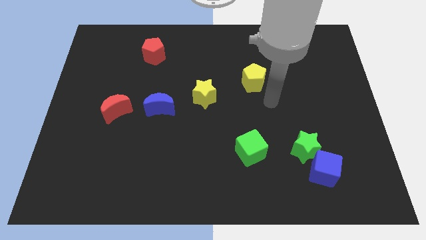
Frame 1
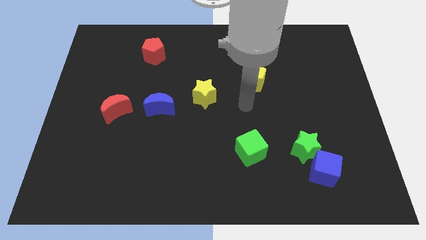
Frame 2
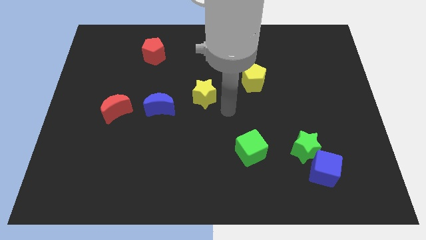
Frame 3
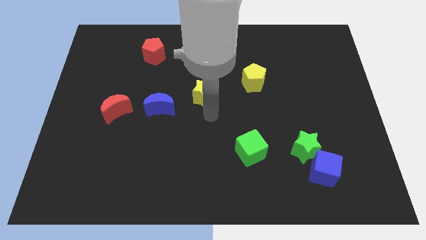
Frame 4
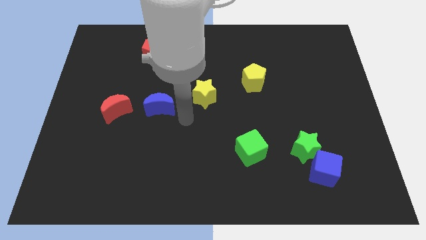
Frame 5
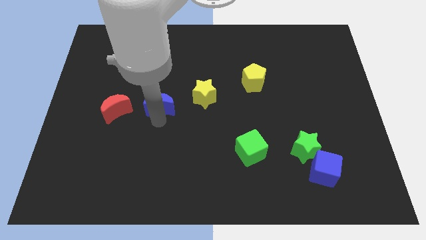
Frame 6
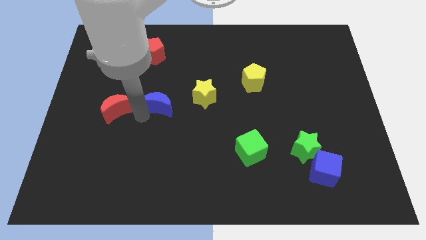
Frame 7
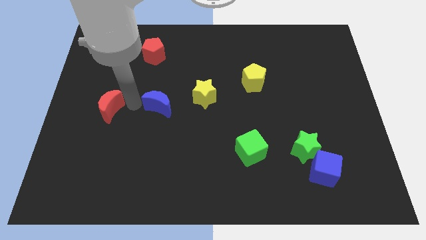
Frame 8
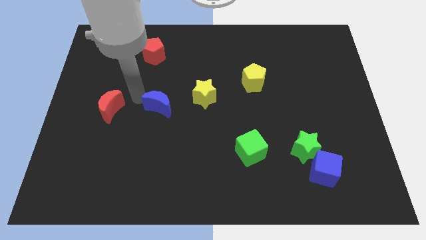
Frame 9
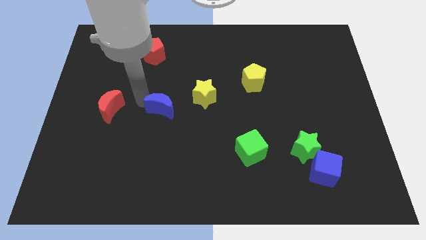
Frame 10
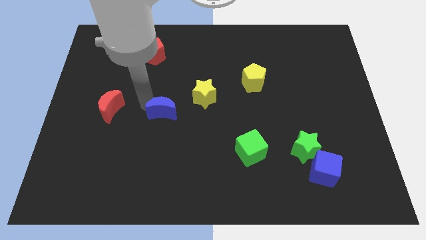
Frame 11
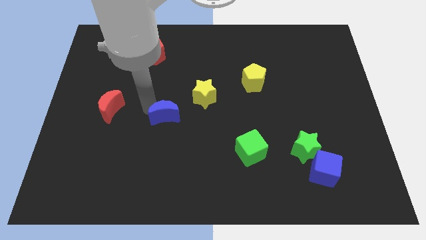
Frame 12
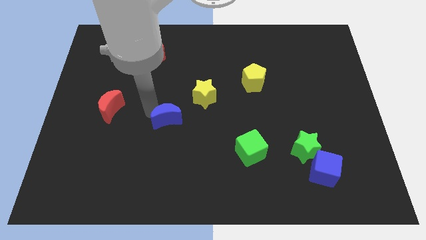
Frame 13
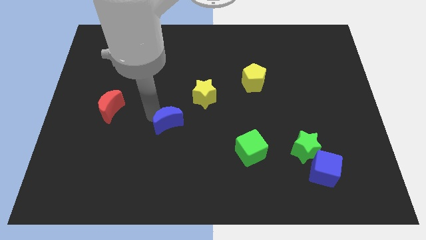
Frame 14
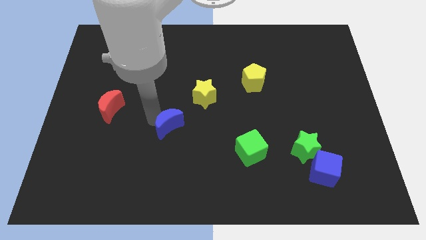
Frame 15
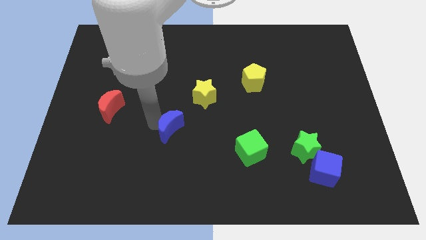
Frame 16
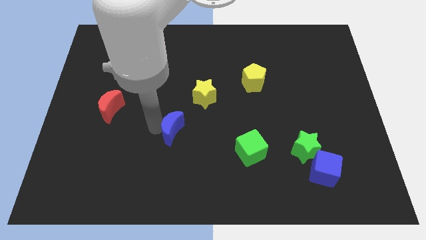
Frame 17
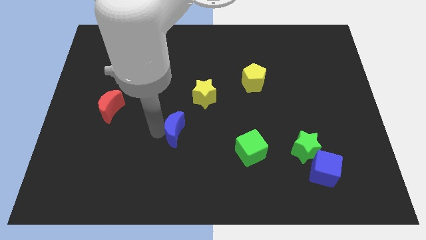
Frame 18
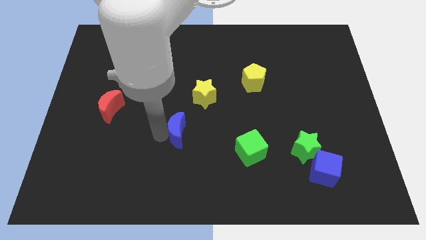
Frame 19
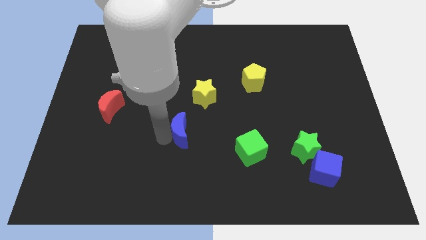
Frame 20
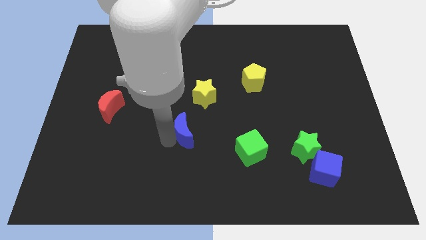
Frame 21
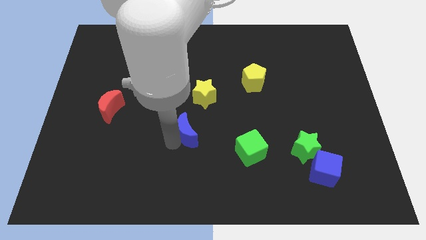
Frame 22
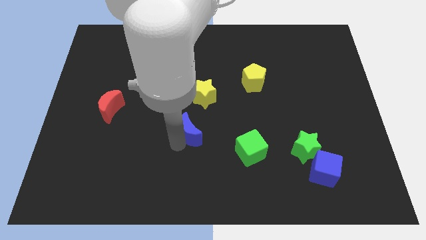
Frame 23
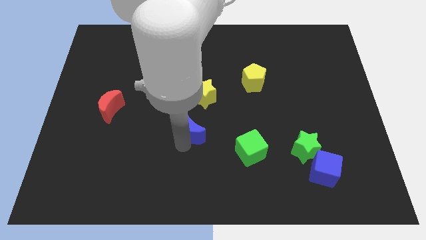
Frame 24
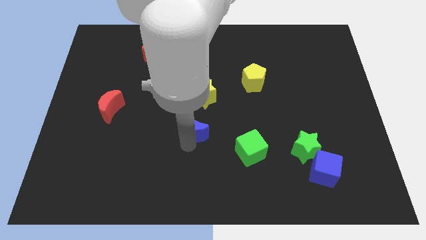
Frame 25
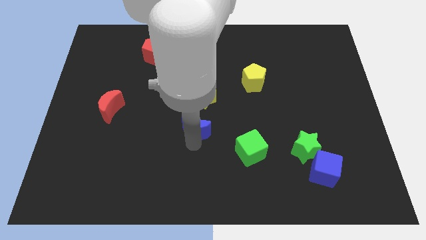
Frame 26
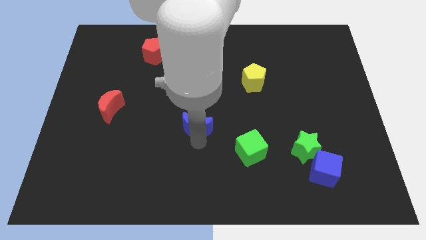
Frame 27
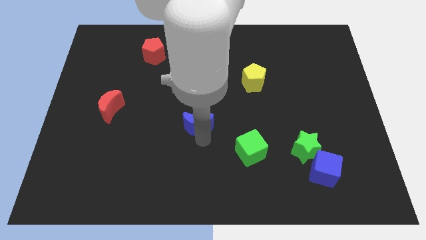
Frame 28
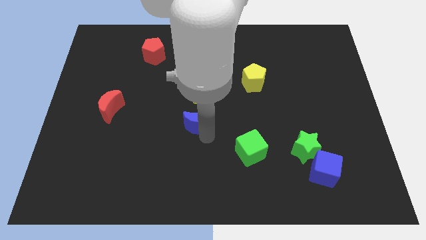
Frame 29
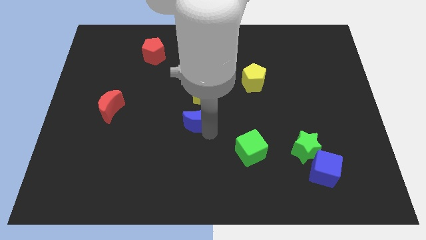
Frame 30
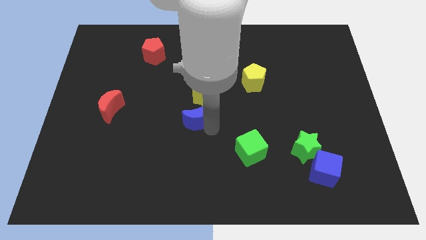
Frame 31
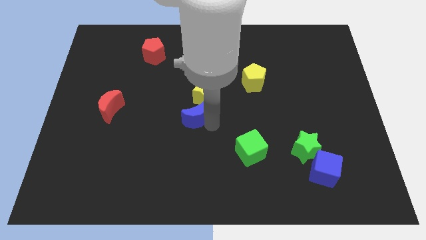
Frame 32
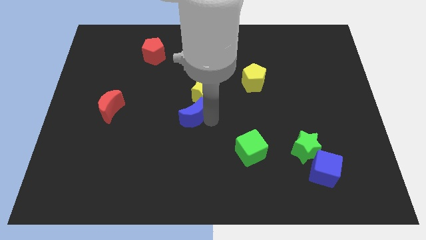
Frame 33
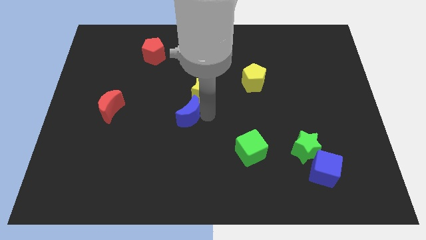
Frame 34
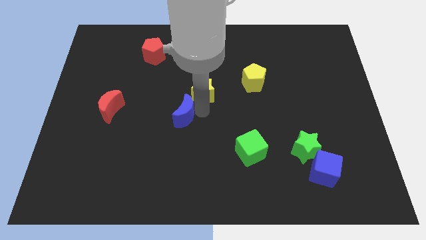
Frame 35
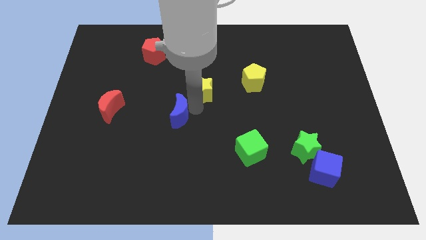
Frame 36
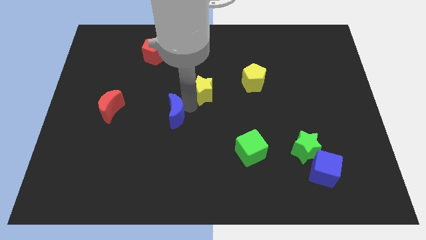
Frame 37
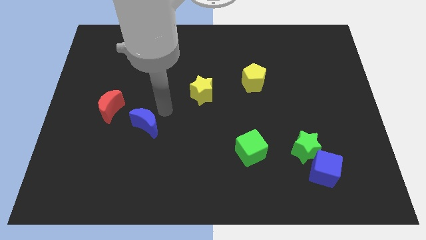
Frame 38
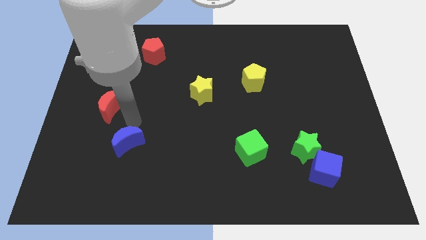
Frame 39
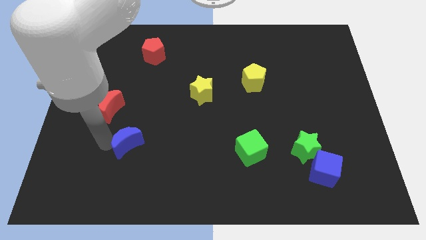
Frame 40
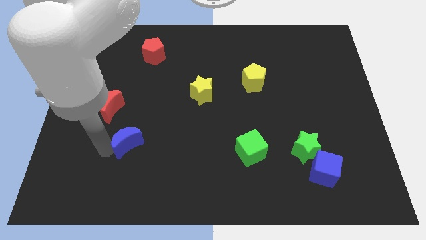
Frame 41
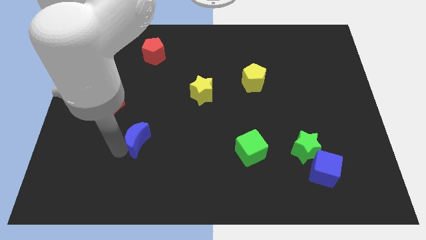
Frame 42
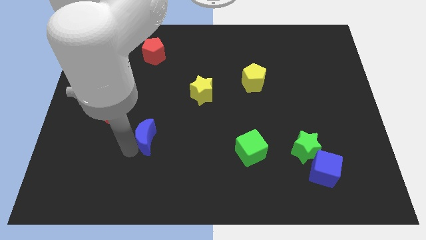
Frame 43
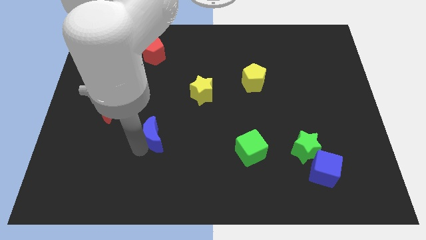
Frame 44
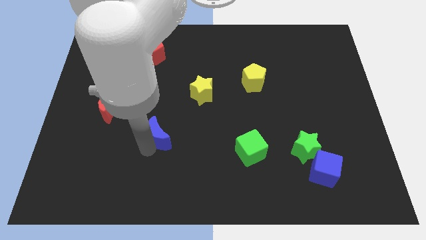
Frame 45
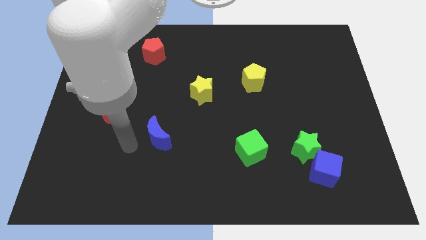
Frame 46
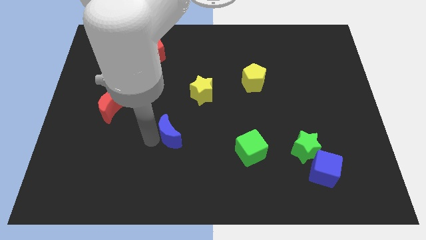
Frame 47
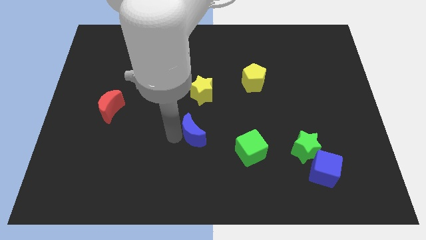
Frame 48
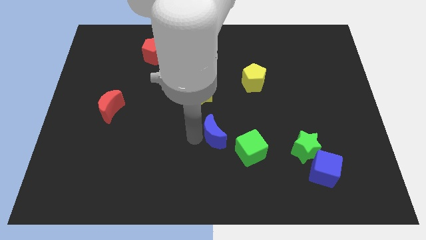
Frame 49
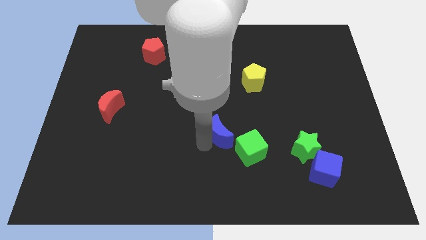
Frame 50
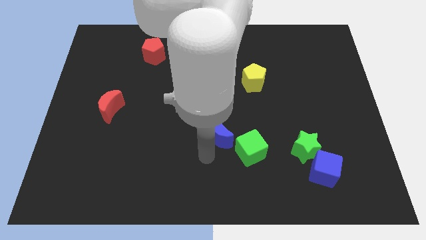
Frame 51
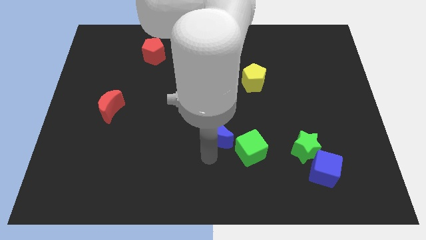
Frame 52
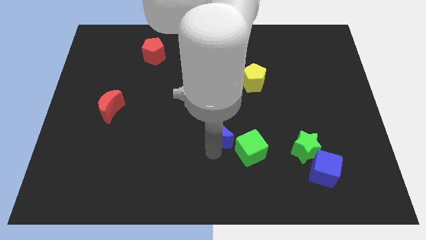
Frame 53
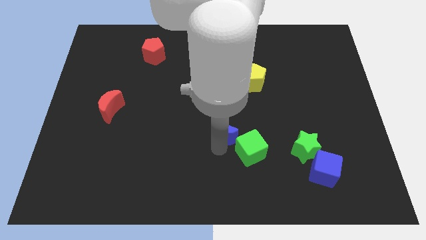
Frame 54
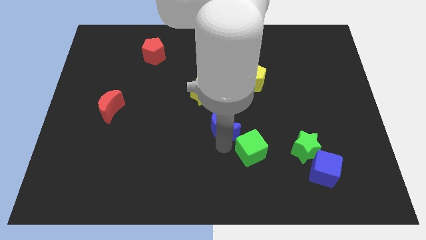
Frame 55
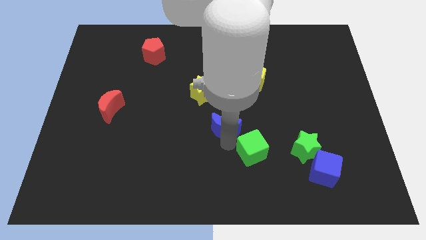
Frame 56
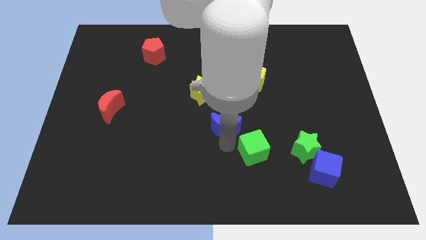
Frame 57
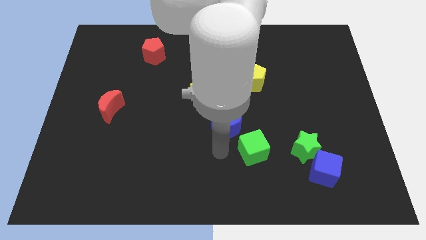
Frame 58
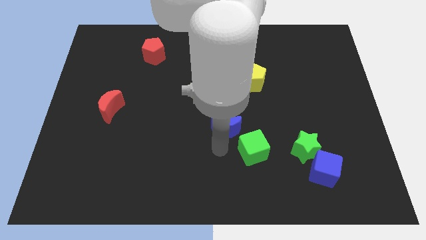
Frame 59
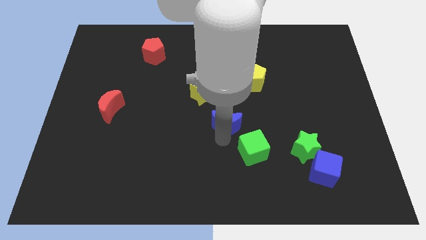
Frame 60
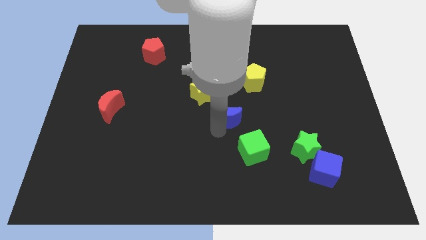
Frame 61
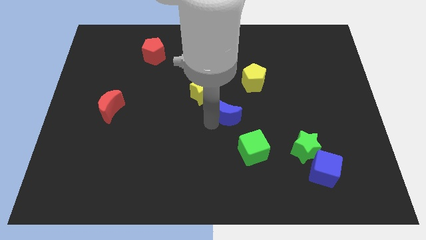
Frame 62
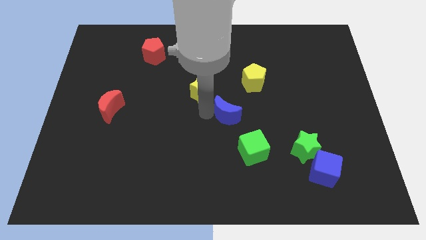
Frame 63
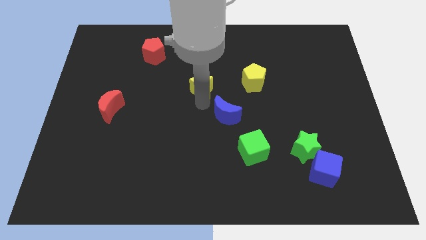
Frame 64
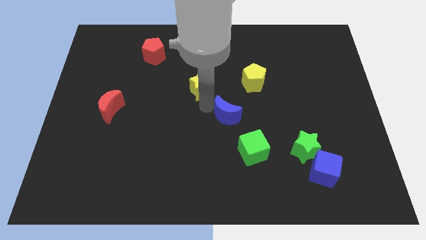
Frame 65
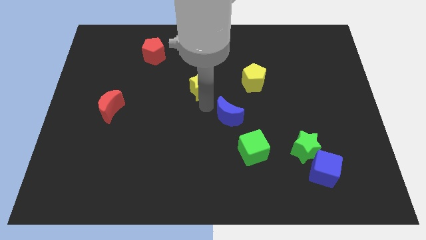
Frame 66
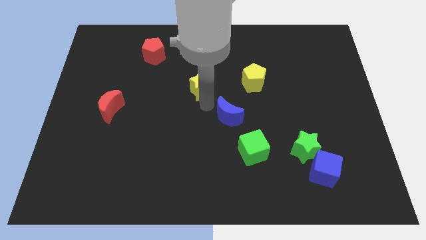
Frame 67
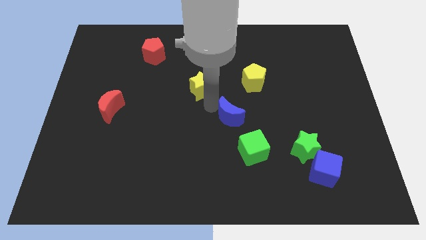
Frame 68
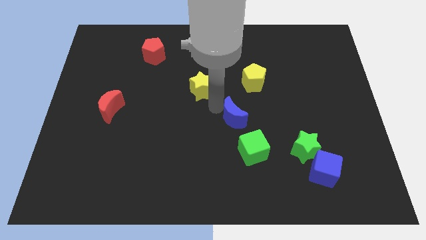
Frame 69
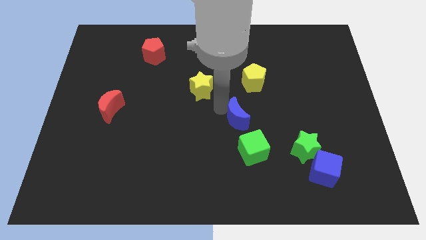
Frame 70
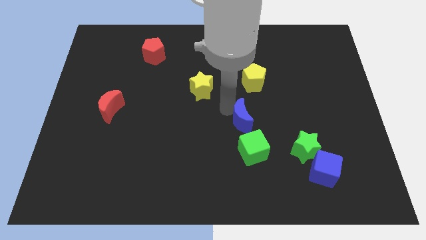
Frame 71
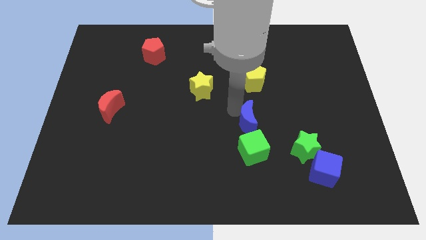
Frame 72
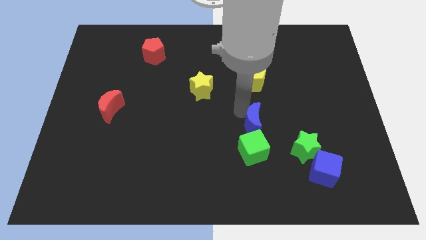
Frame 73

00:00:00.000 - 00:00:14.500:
move the blue moon to the top right side of the green cube
